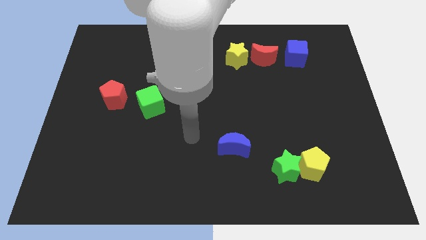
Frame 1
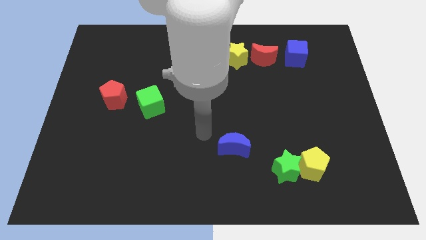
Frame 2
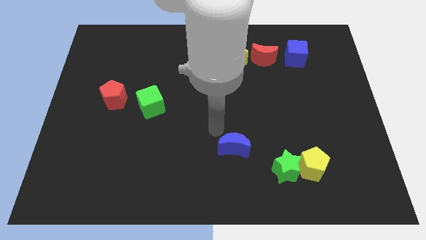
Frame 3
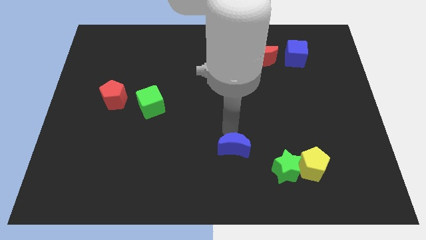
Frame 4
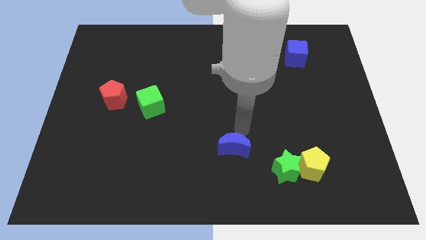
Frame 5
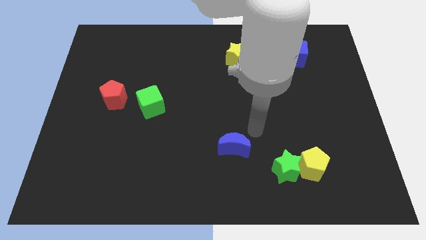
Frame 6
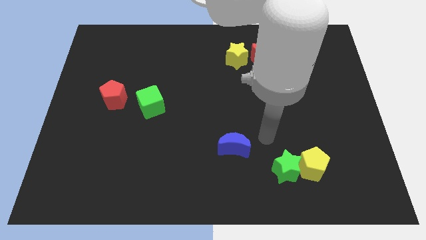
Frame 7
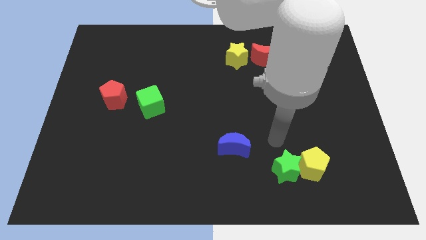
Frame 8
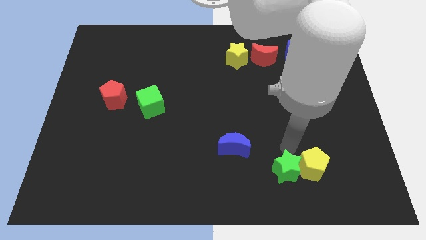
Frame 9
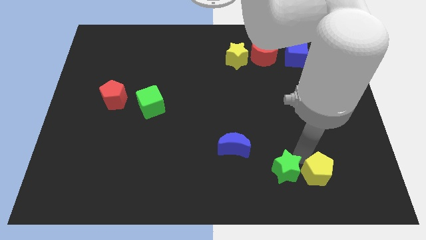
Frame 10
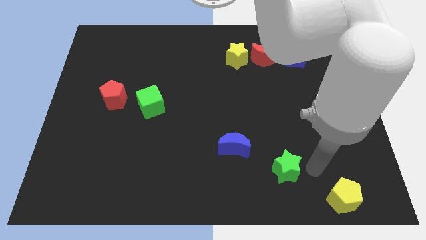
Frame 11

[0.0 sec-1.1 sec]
pull the green star apart from the yellow pentagon

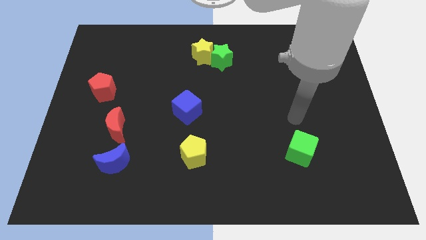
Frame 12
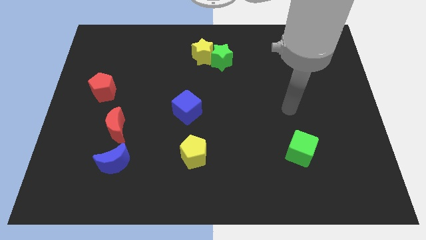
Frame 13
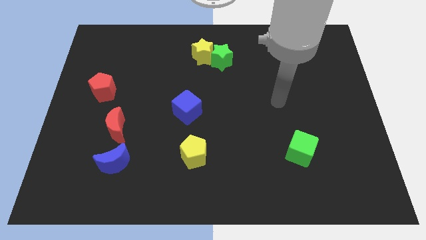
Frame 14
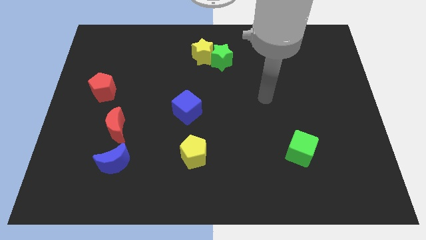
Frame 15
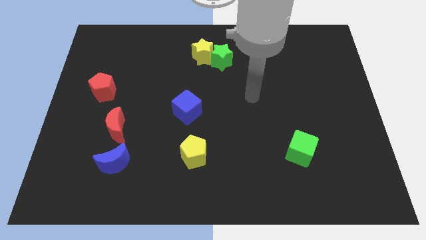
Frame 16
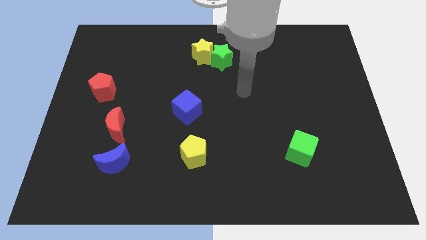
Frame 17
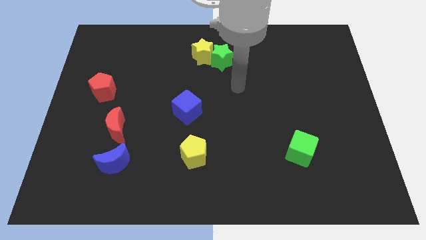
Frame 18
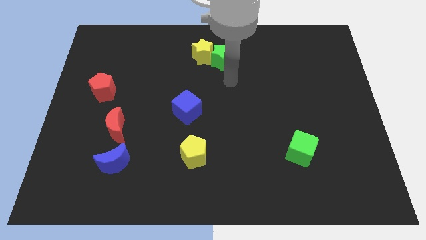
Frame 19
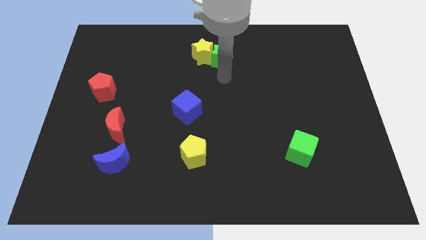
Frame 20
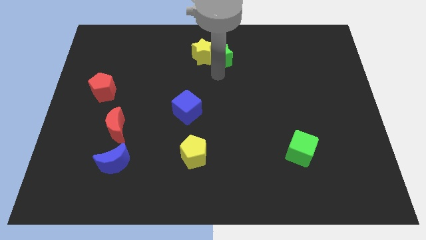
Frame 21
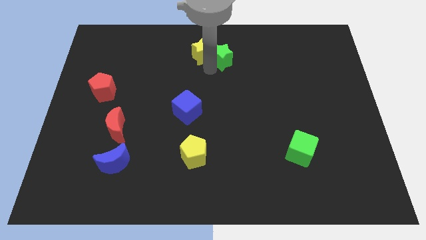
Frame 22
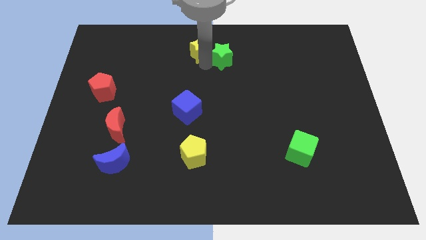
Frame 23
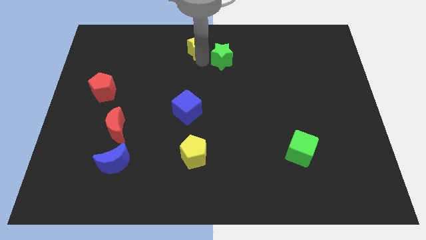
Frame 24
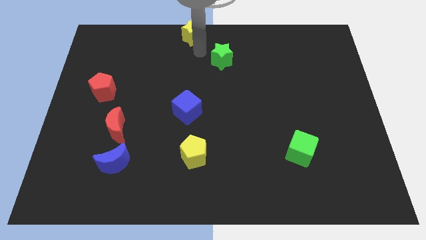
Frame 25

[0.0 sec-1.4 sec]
separate the green star from the yellow star

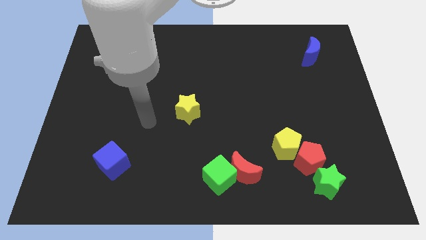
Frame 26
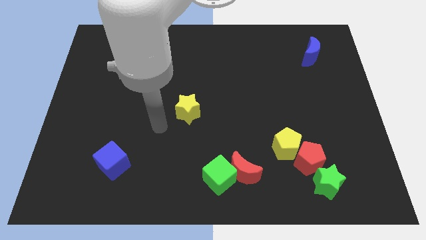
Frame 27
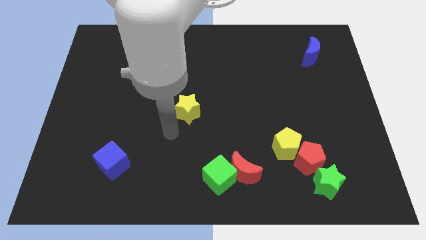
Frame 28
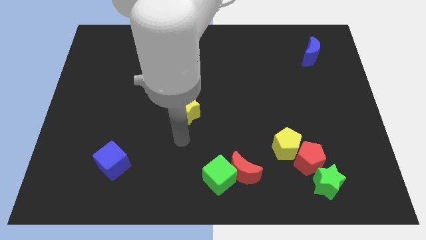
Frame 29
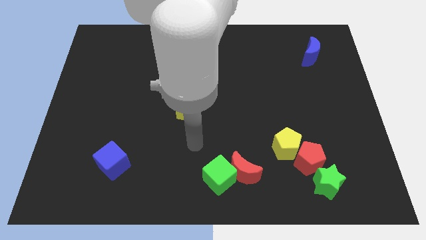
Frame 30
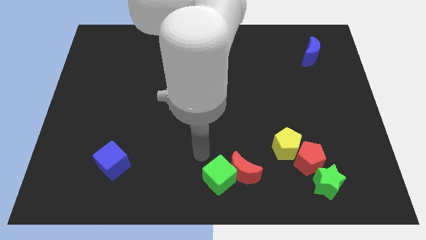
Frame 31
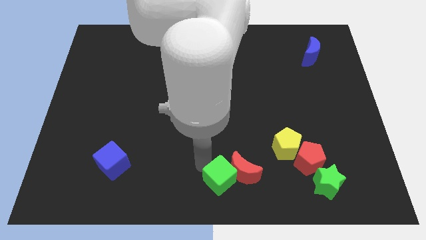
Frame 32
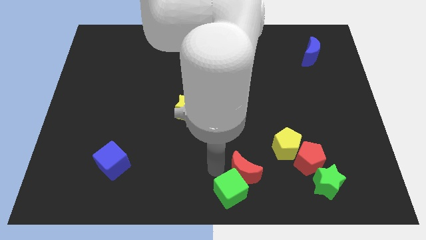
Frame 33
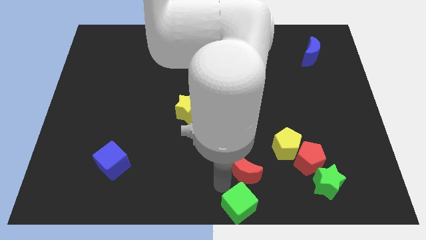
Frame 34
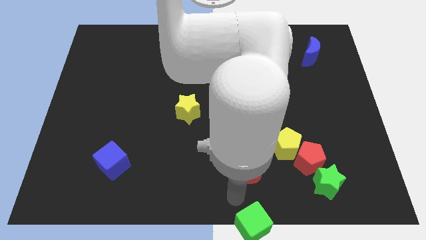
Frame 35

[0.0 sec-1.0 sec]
separate the red moon from the green cube

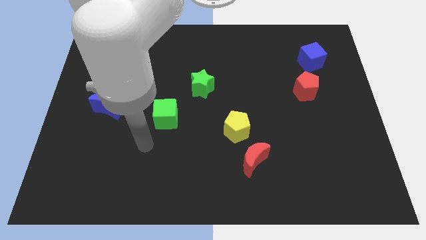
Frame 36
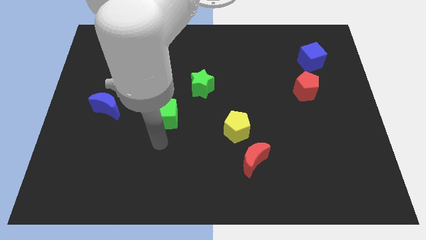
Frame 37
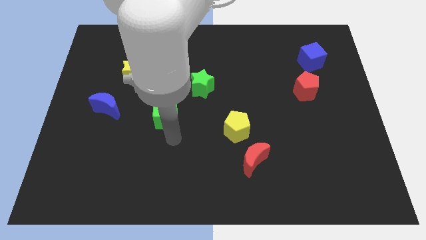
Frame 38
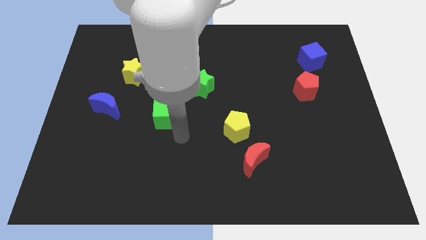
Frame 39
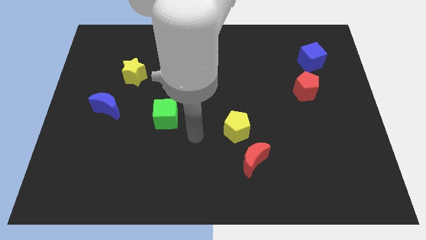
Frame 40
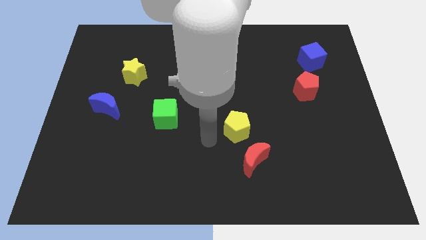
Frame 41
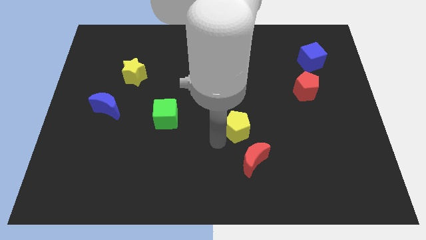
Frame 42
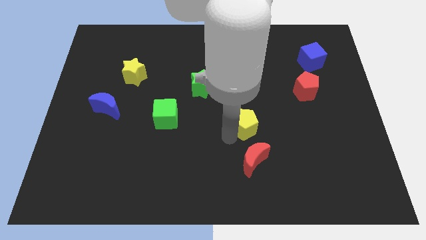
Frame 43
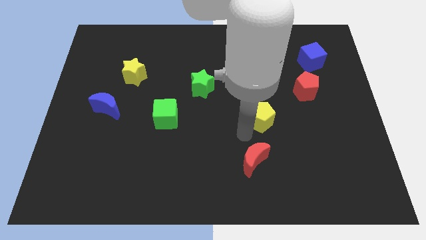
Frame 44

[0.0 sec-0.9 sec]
move the red moon away from the yellow pentagon

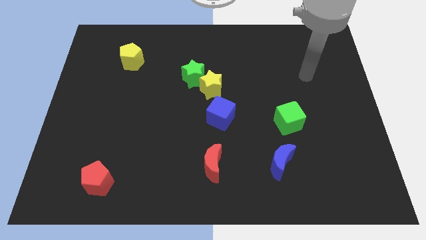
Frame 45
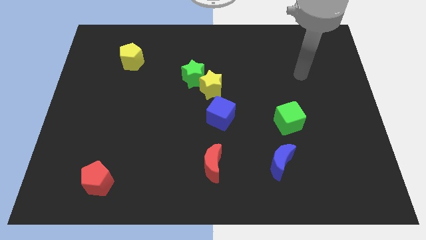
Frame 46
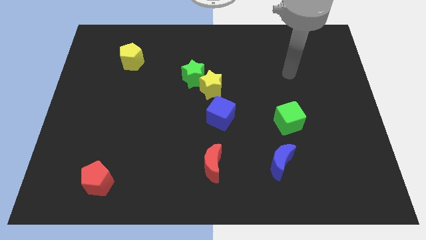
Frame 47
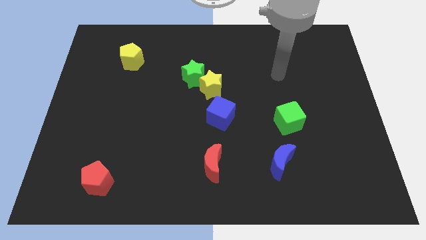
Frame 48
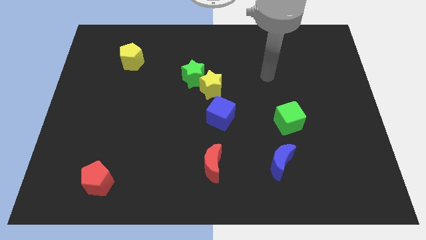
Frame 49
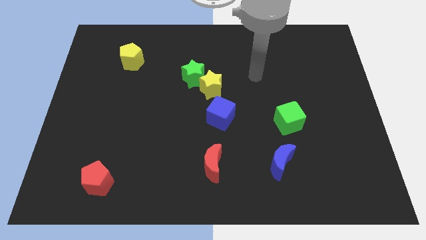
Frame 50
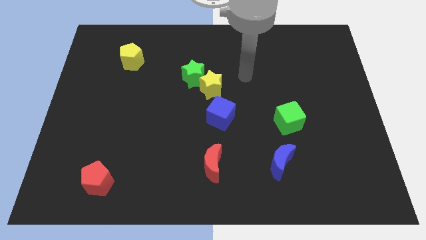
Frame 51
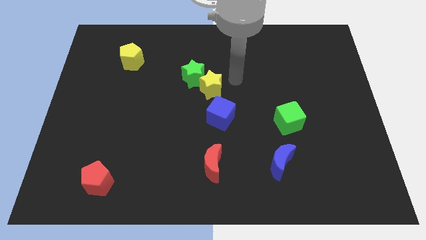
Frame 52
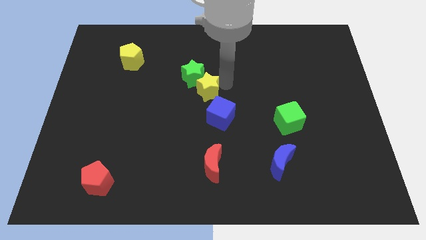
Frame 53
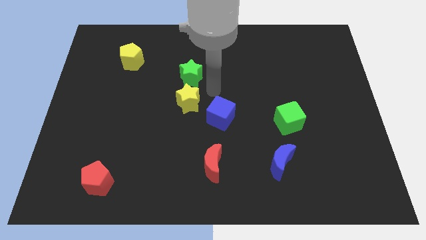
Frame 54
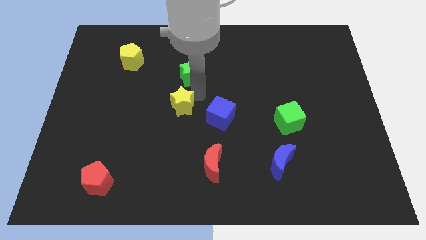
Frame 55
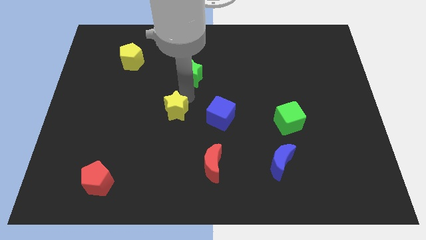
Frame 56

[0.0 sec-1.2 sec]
move the green star away from the yellow star

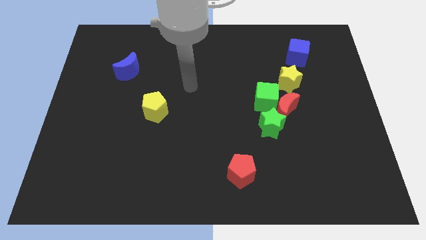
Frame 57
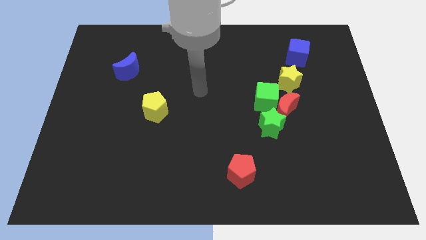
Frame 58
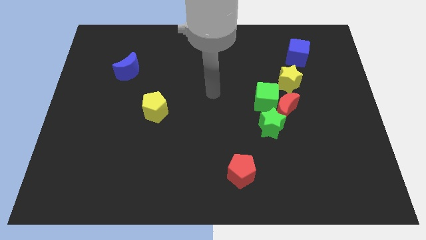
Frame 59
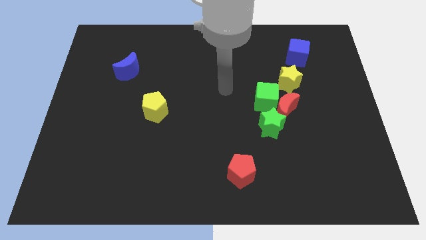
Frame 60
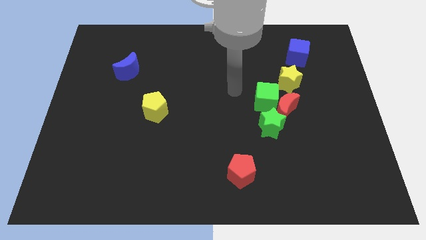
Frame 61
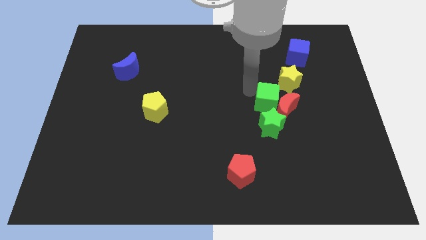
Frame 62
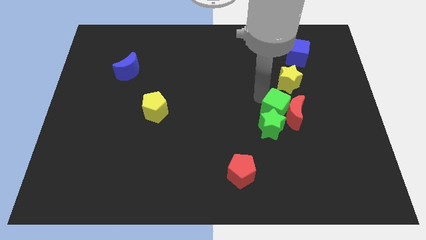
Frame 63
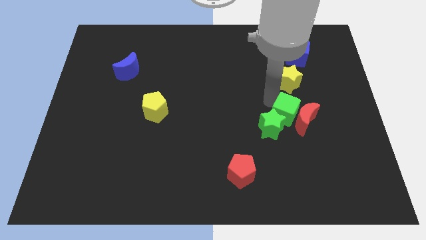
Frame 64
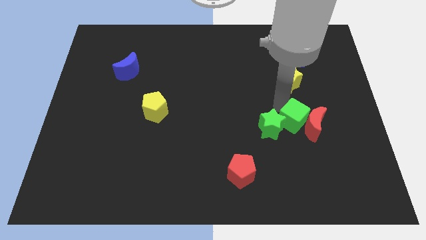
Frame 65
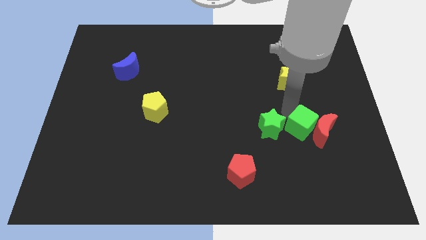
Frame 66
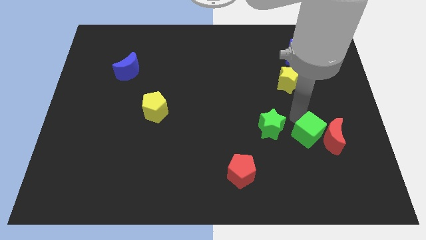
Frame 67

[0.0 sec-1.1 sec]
pull the red moon apart from the group

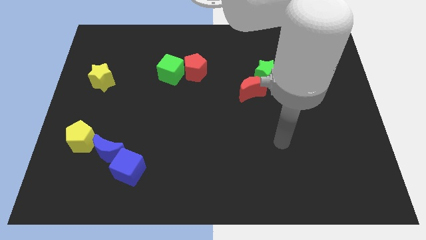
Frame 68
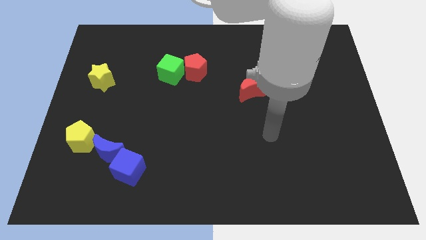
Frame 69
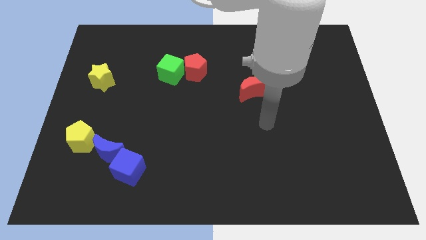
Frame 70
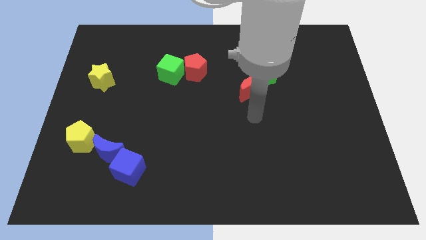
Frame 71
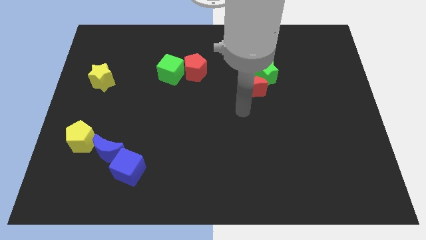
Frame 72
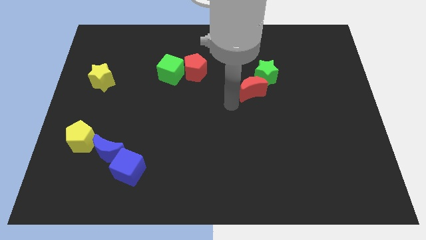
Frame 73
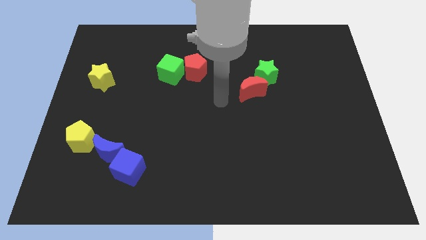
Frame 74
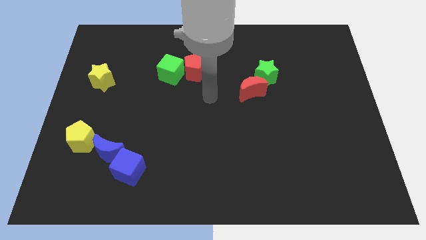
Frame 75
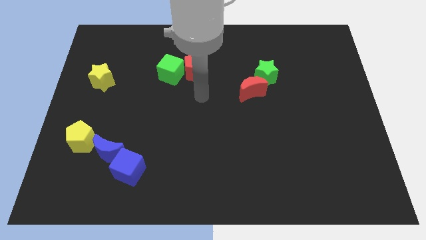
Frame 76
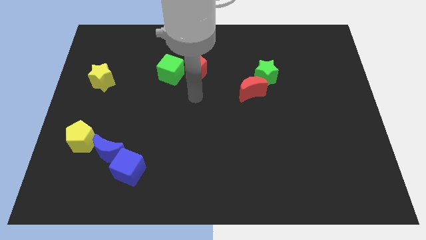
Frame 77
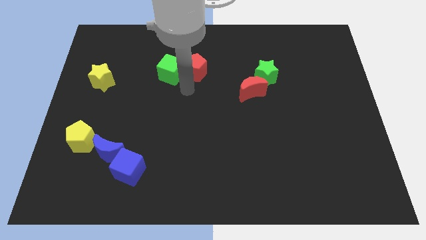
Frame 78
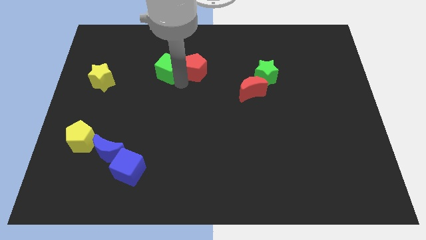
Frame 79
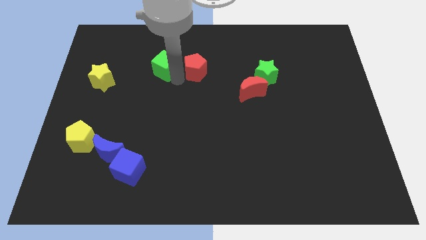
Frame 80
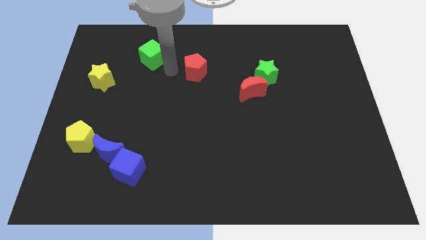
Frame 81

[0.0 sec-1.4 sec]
pull the red pentagon apart from the green cube

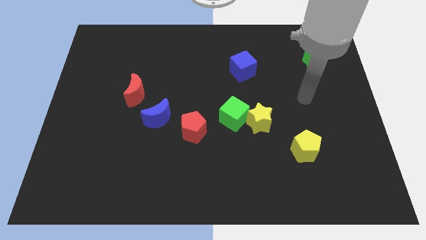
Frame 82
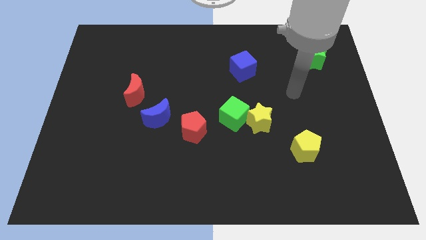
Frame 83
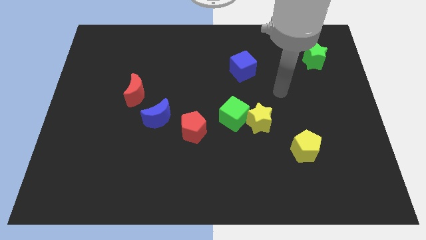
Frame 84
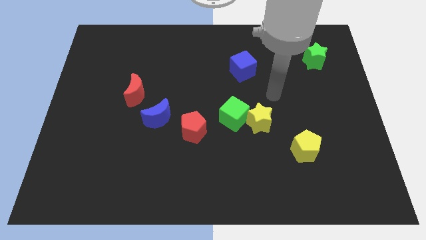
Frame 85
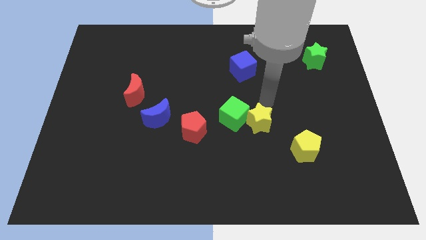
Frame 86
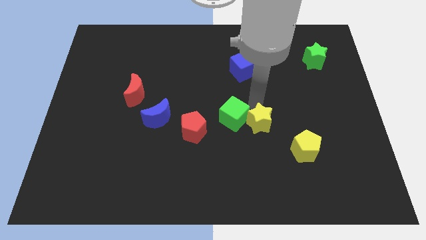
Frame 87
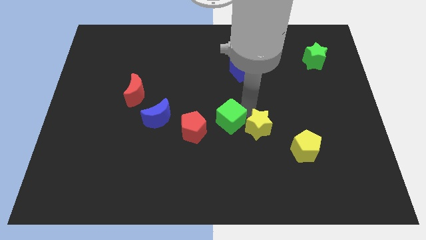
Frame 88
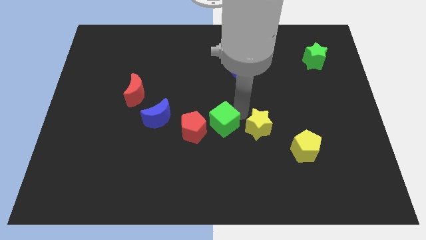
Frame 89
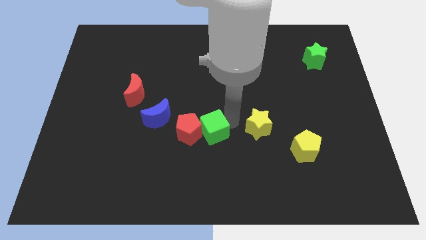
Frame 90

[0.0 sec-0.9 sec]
move the yellow star away from the green cube

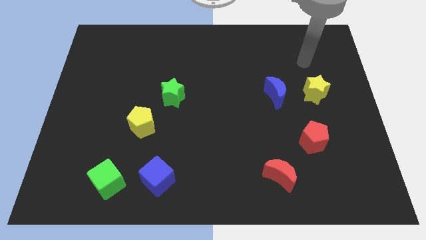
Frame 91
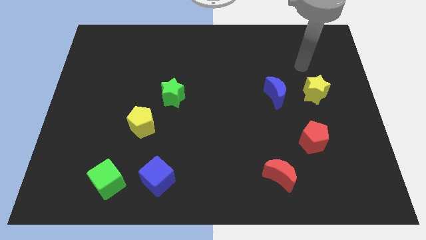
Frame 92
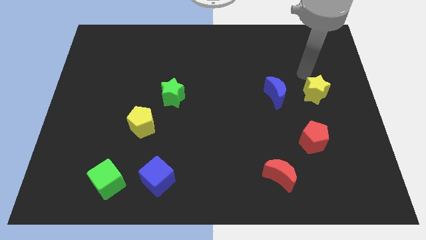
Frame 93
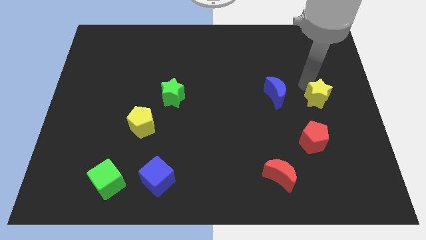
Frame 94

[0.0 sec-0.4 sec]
separate the blue moon from the yellow star
